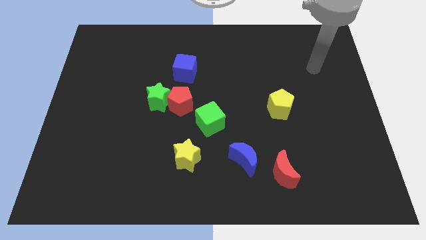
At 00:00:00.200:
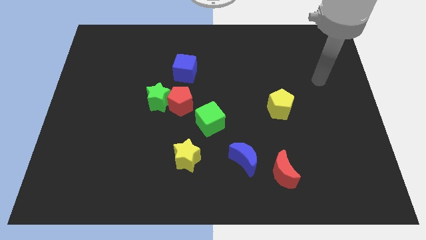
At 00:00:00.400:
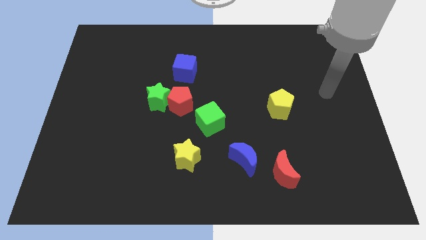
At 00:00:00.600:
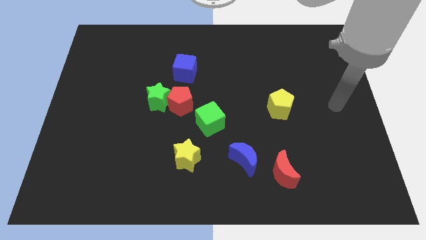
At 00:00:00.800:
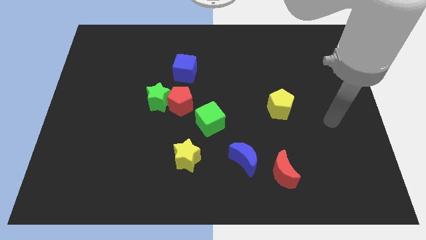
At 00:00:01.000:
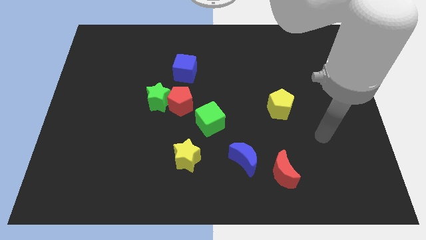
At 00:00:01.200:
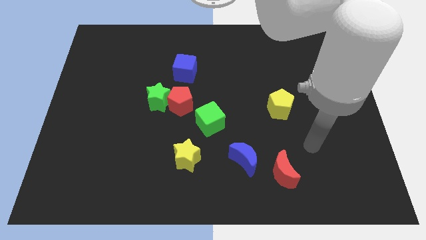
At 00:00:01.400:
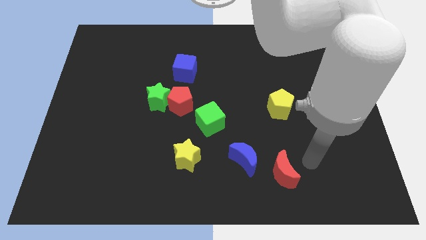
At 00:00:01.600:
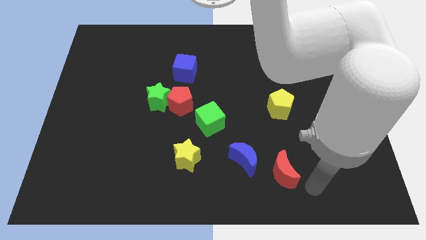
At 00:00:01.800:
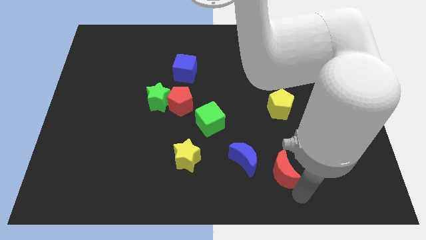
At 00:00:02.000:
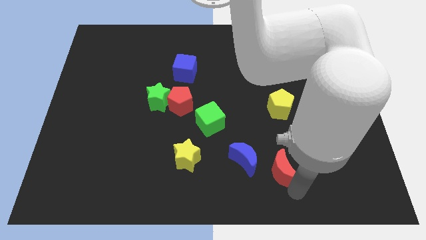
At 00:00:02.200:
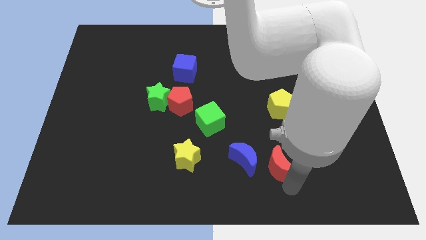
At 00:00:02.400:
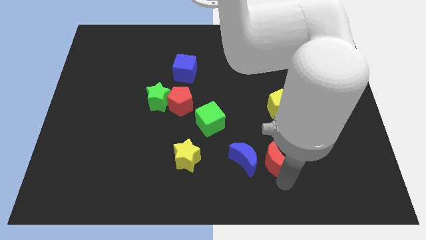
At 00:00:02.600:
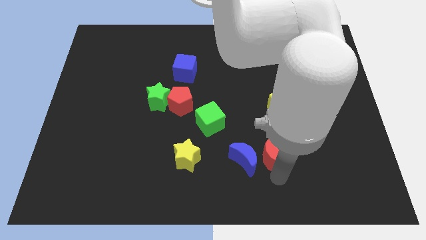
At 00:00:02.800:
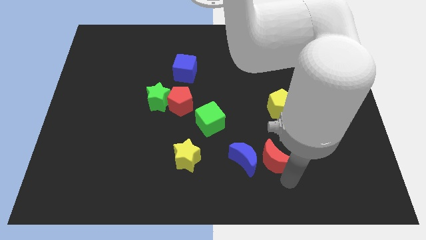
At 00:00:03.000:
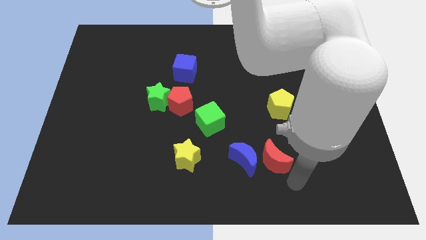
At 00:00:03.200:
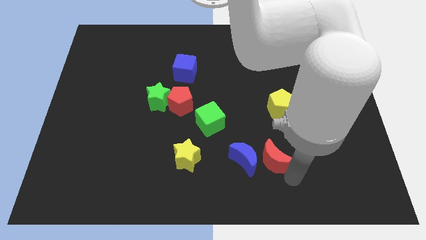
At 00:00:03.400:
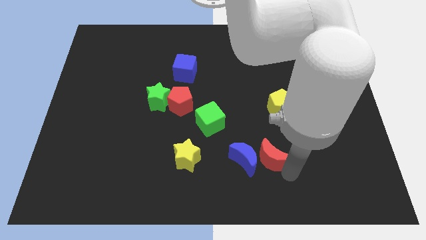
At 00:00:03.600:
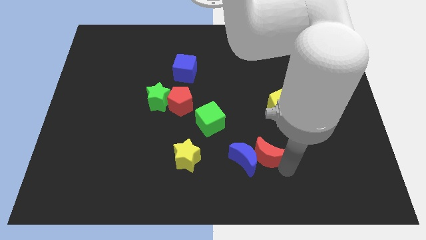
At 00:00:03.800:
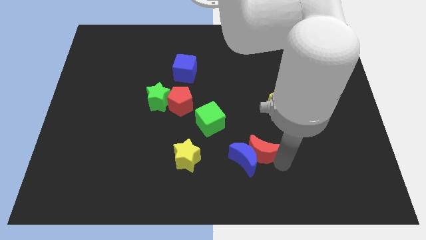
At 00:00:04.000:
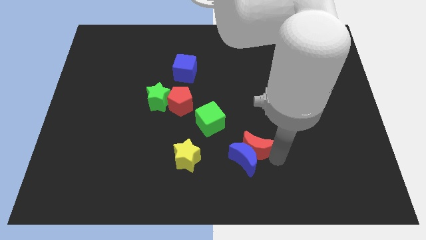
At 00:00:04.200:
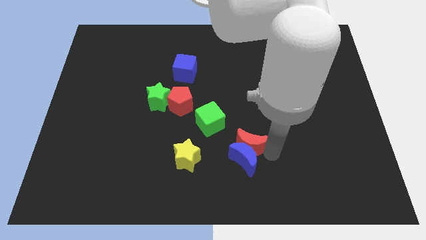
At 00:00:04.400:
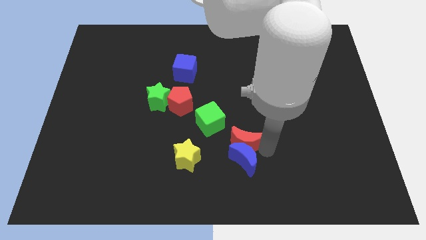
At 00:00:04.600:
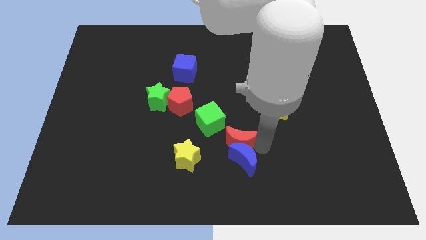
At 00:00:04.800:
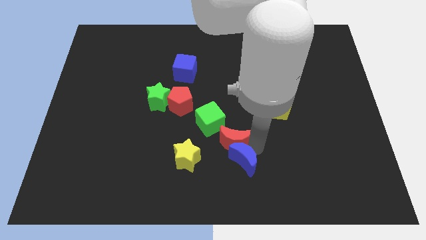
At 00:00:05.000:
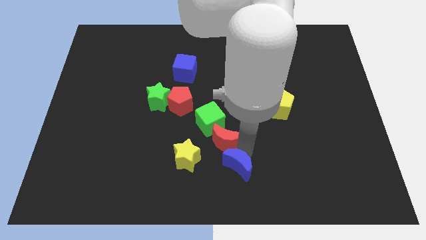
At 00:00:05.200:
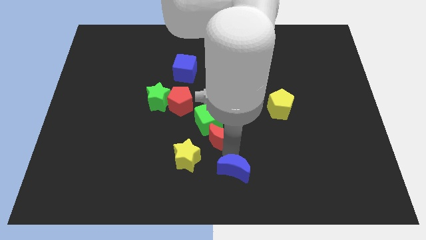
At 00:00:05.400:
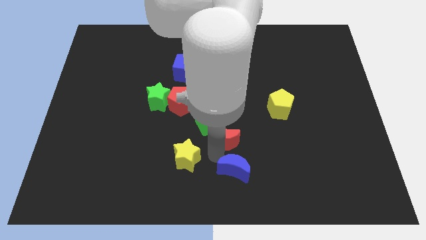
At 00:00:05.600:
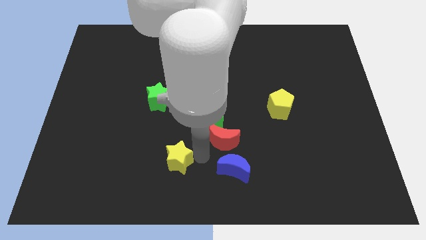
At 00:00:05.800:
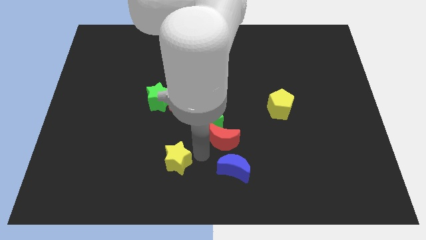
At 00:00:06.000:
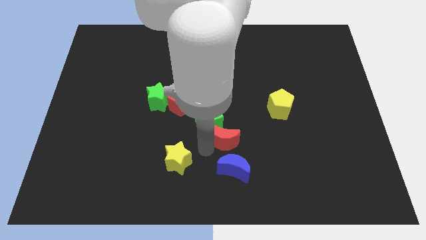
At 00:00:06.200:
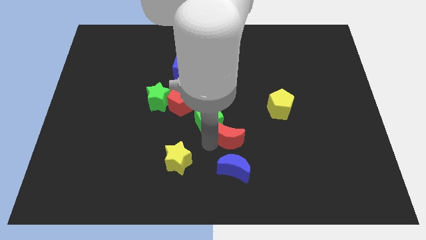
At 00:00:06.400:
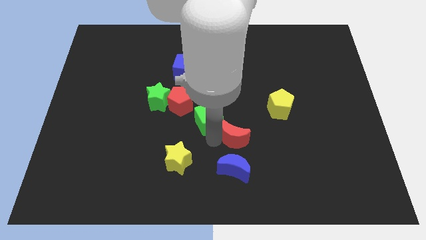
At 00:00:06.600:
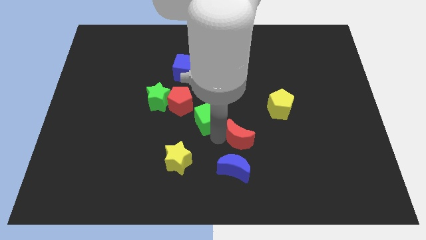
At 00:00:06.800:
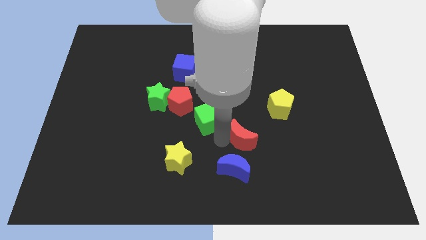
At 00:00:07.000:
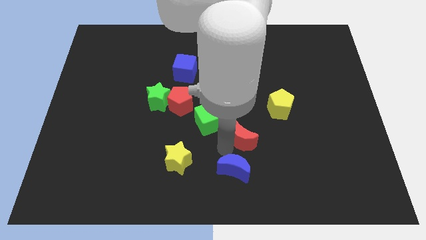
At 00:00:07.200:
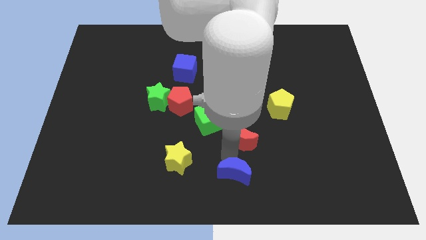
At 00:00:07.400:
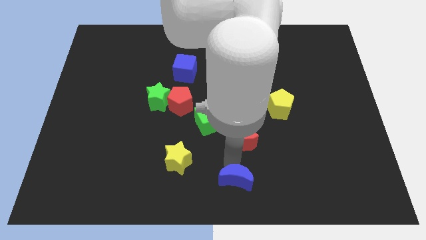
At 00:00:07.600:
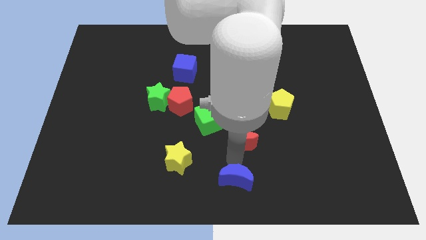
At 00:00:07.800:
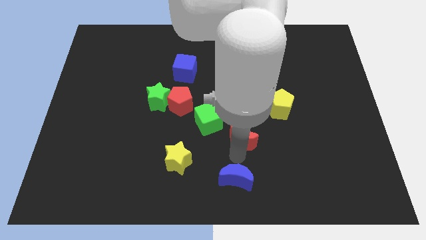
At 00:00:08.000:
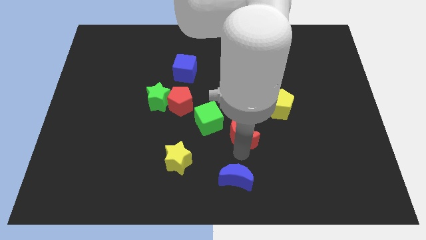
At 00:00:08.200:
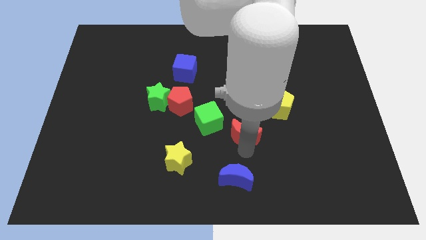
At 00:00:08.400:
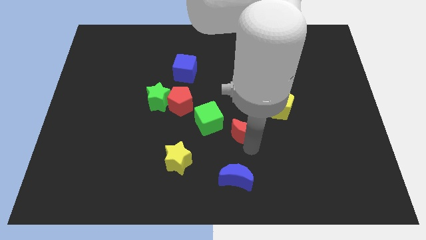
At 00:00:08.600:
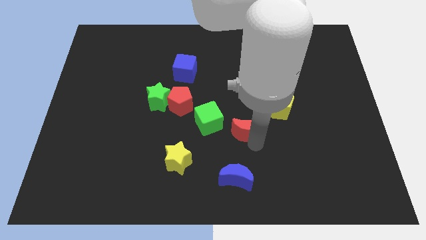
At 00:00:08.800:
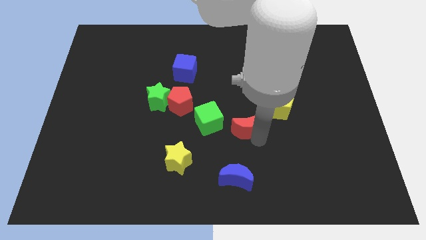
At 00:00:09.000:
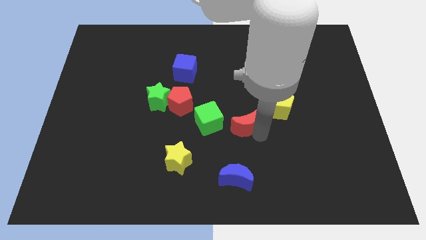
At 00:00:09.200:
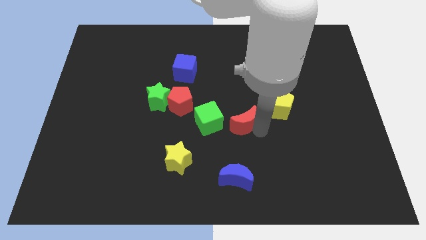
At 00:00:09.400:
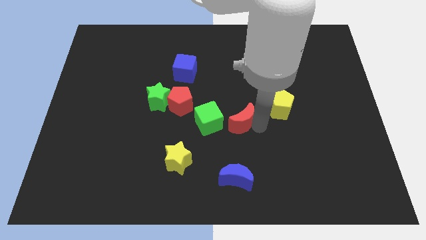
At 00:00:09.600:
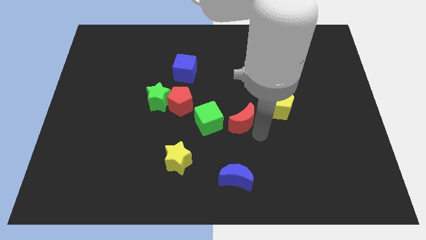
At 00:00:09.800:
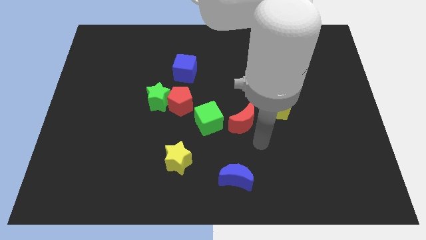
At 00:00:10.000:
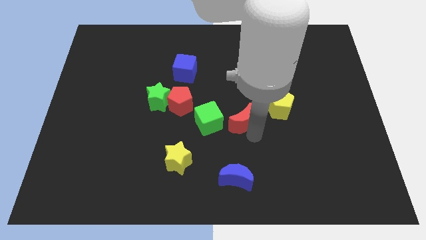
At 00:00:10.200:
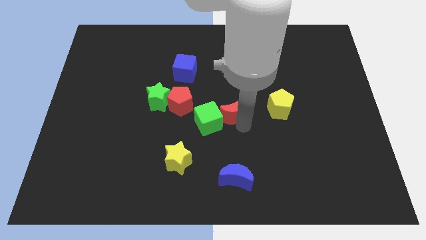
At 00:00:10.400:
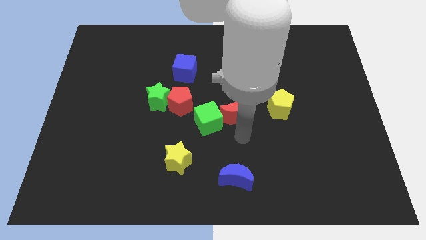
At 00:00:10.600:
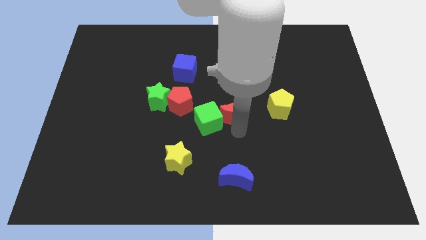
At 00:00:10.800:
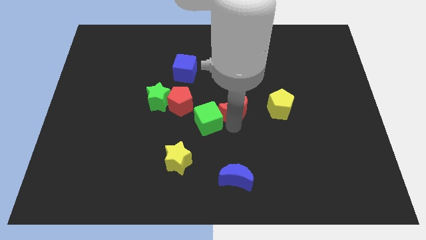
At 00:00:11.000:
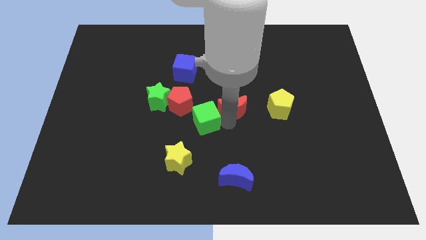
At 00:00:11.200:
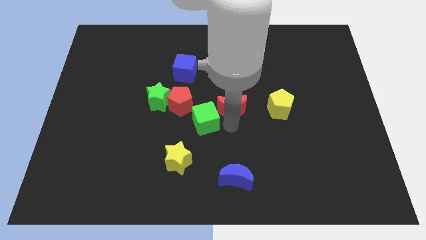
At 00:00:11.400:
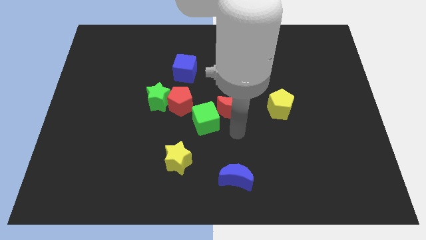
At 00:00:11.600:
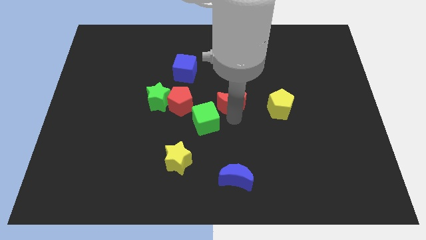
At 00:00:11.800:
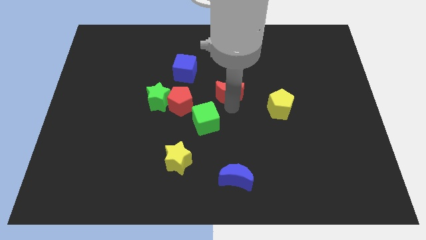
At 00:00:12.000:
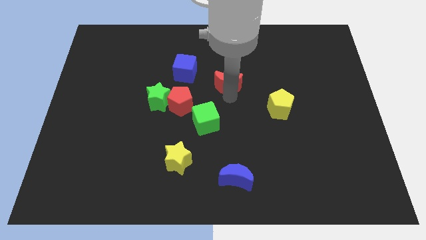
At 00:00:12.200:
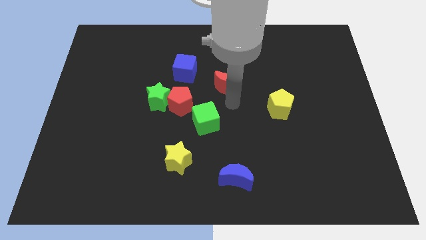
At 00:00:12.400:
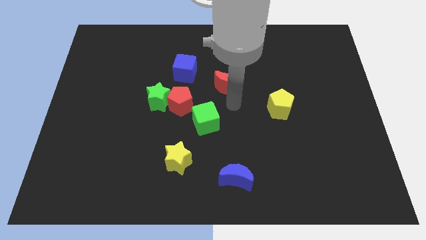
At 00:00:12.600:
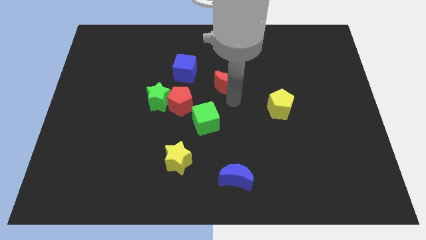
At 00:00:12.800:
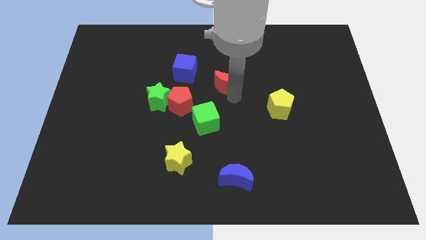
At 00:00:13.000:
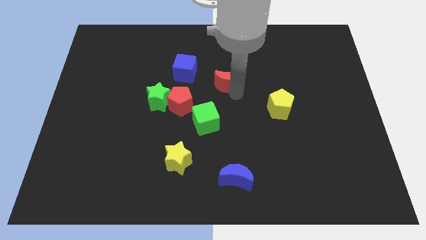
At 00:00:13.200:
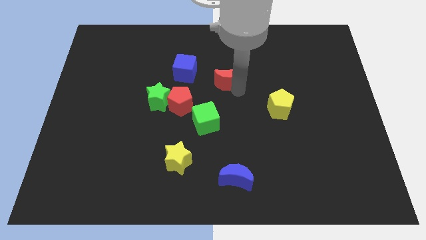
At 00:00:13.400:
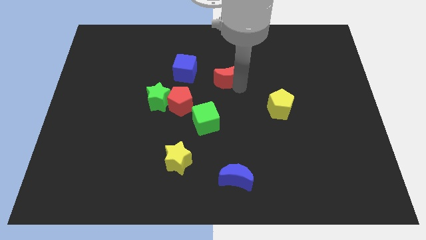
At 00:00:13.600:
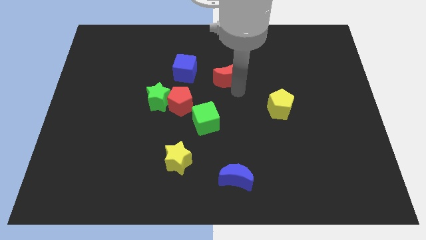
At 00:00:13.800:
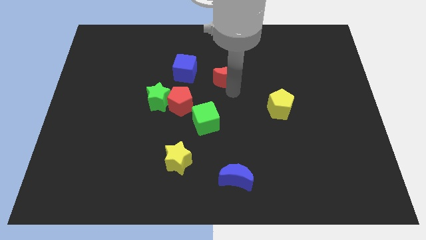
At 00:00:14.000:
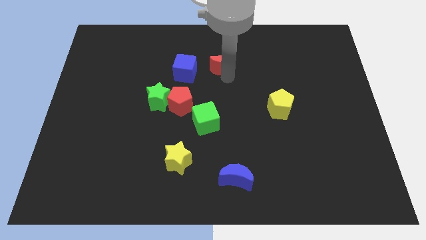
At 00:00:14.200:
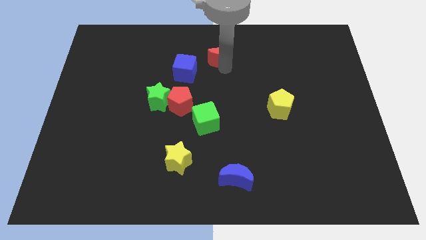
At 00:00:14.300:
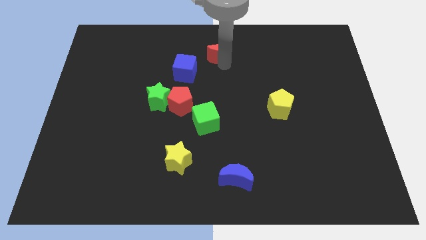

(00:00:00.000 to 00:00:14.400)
put the red moon to the towards your base
